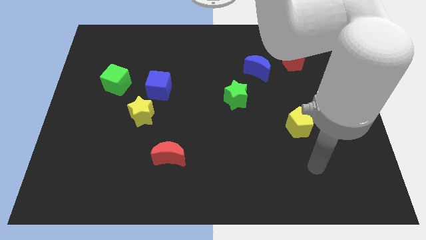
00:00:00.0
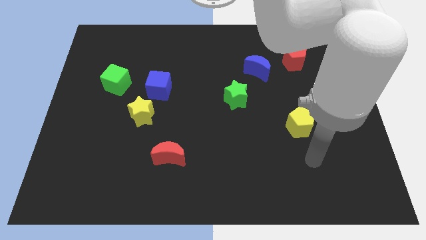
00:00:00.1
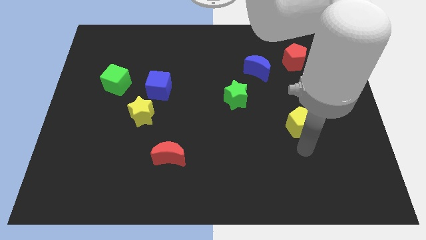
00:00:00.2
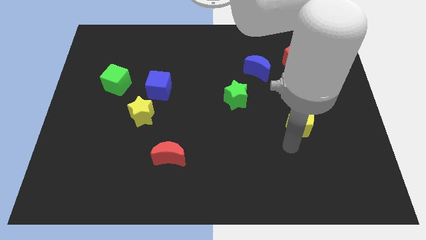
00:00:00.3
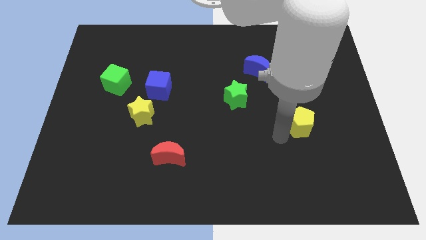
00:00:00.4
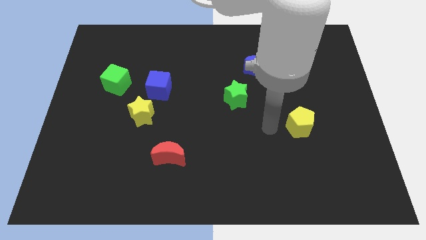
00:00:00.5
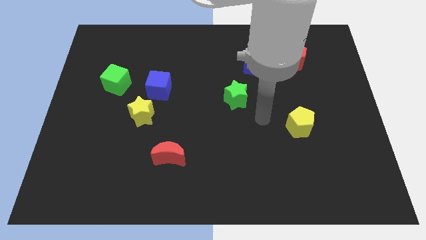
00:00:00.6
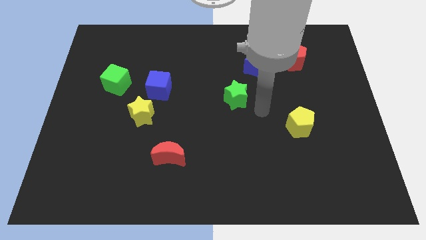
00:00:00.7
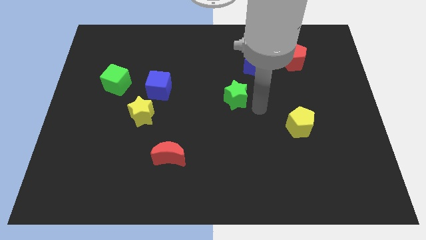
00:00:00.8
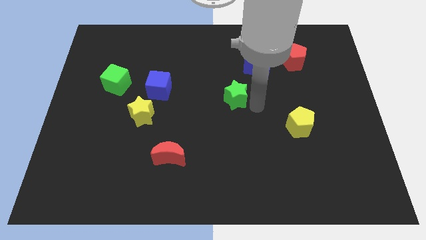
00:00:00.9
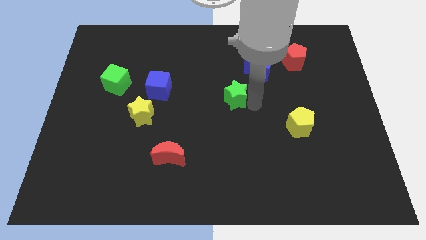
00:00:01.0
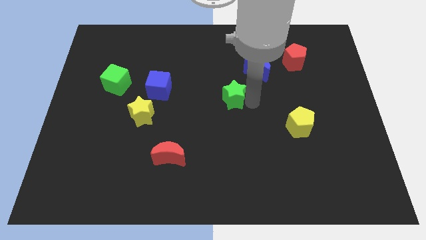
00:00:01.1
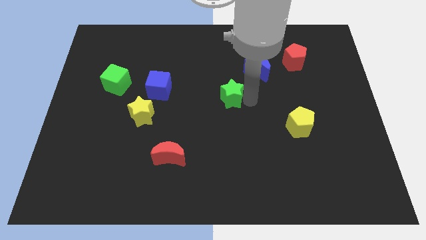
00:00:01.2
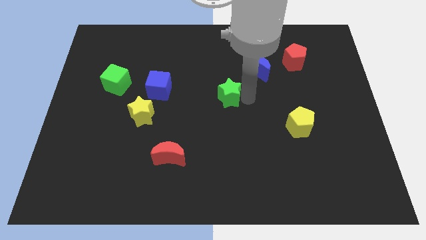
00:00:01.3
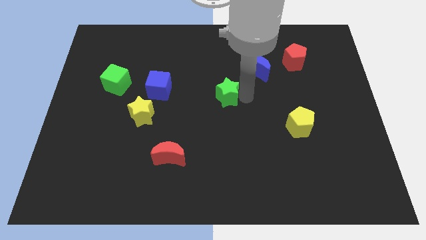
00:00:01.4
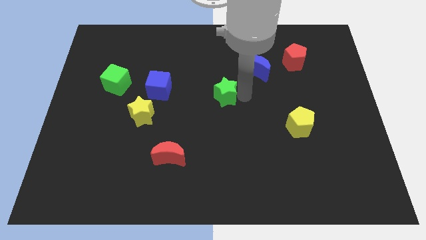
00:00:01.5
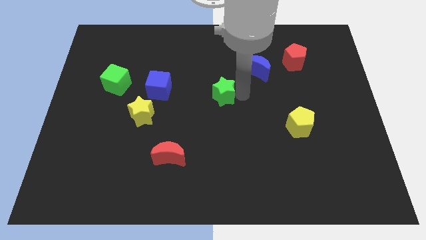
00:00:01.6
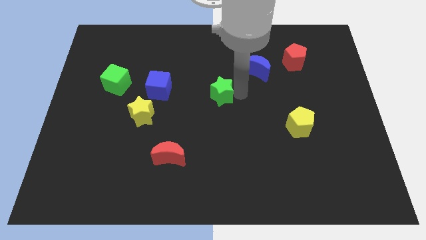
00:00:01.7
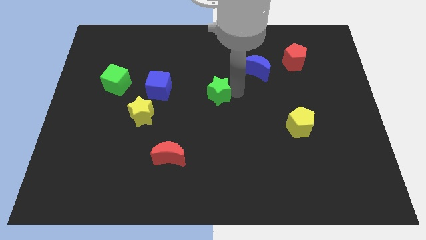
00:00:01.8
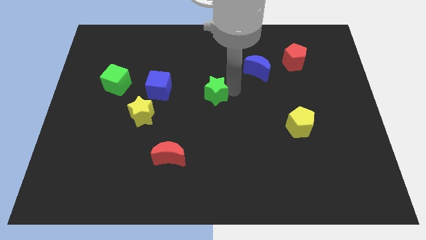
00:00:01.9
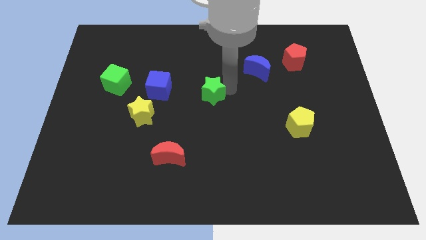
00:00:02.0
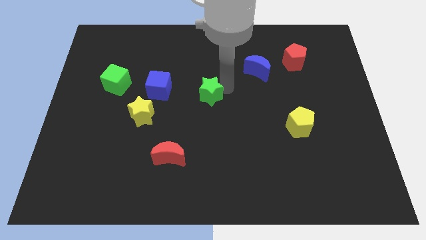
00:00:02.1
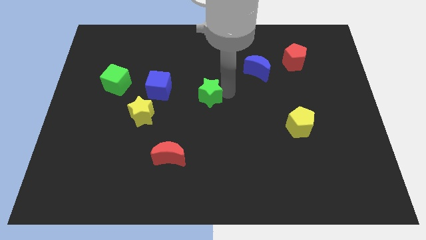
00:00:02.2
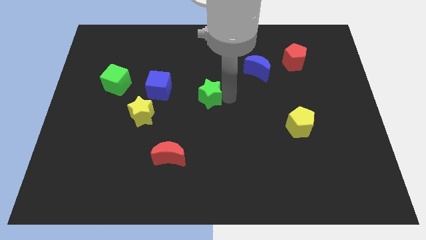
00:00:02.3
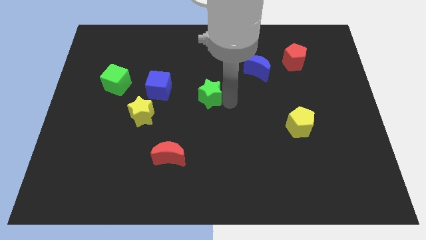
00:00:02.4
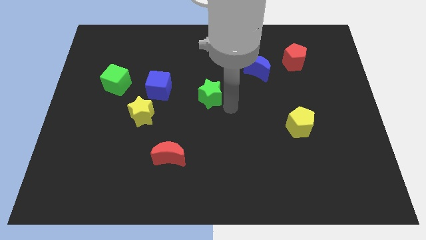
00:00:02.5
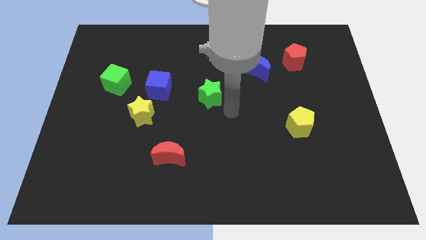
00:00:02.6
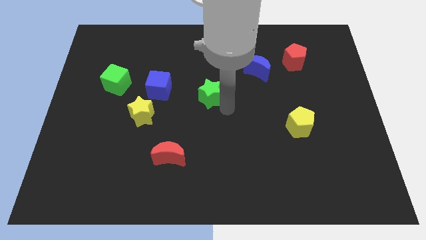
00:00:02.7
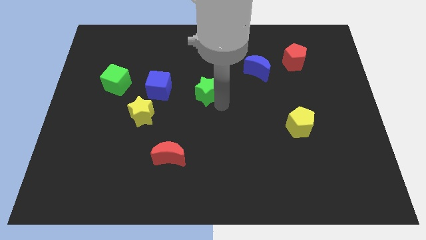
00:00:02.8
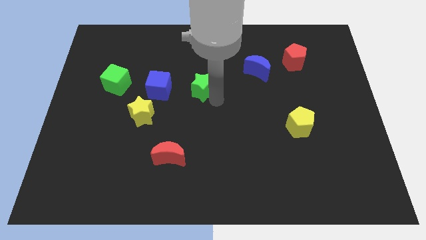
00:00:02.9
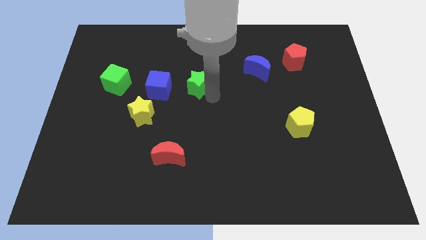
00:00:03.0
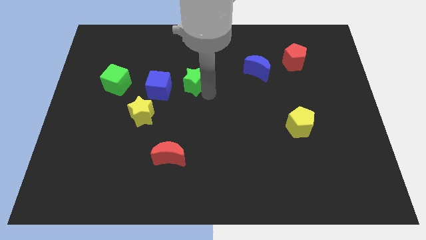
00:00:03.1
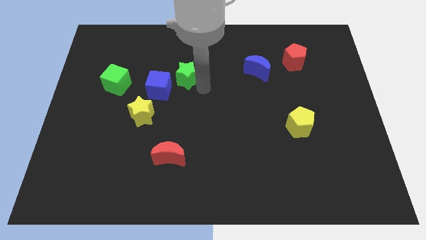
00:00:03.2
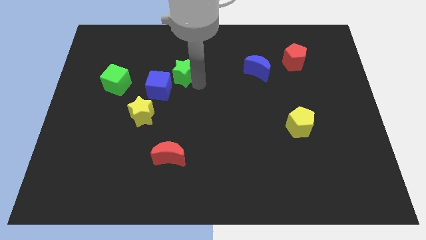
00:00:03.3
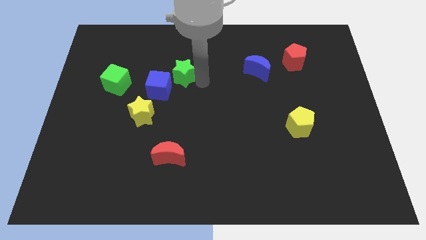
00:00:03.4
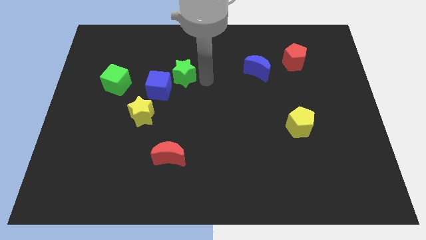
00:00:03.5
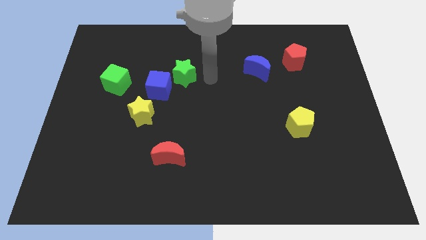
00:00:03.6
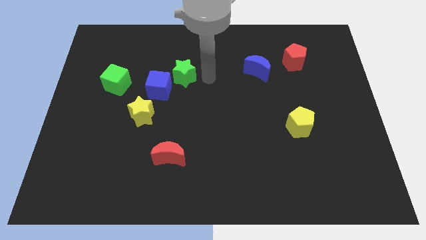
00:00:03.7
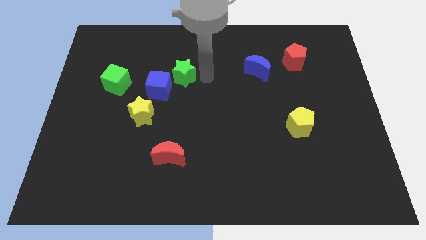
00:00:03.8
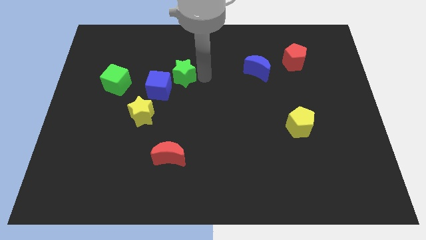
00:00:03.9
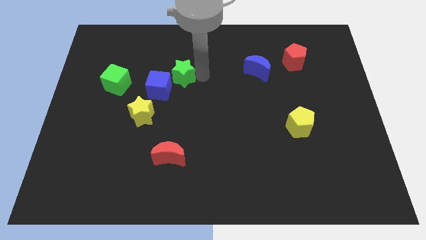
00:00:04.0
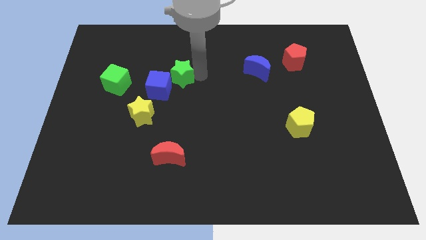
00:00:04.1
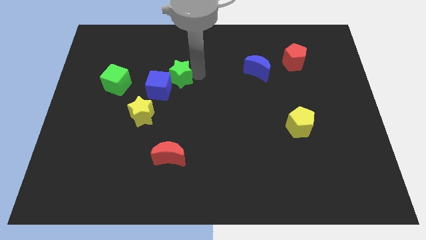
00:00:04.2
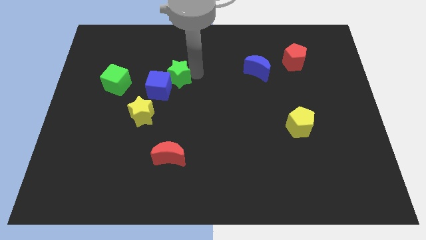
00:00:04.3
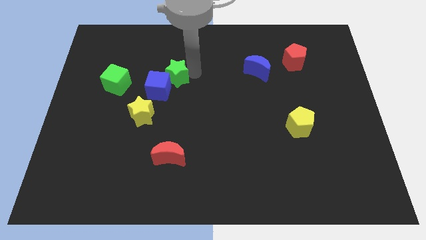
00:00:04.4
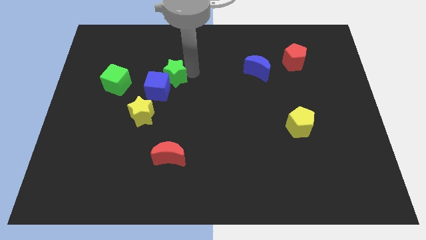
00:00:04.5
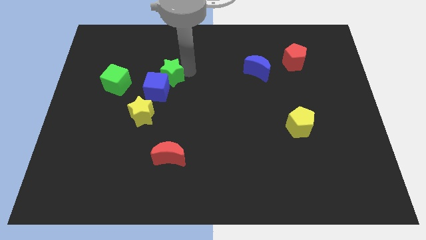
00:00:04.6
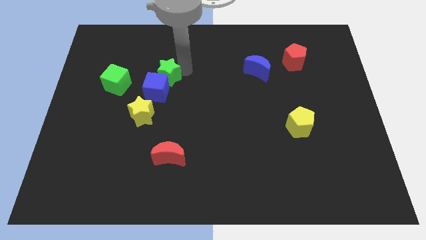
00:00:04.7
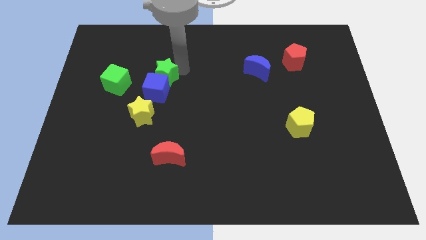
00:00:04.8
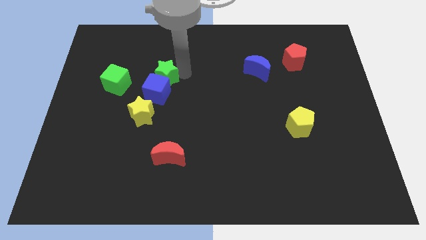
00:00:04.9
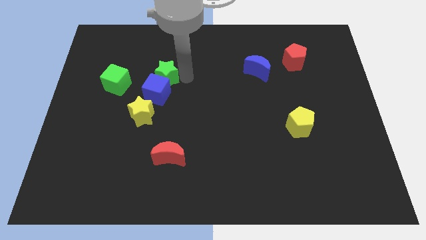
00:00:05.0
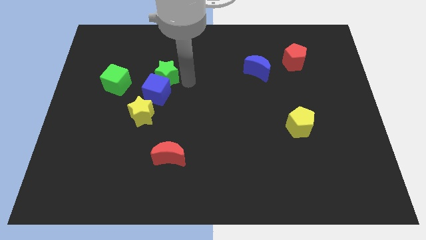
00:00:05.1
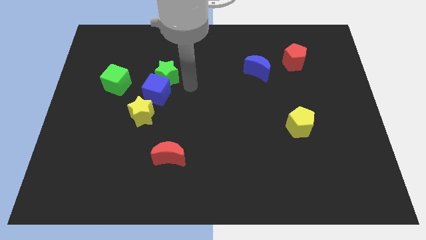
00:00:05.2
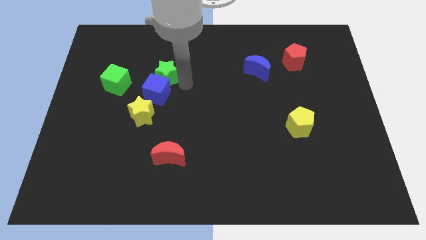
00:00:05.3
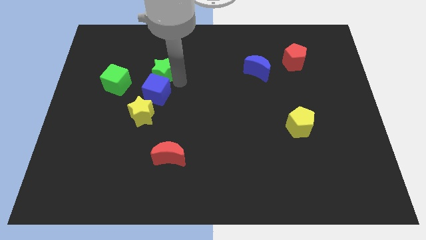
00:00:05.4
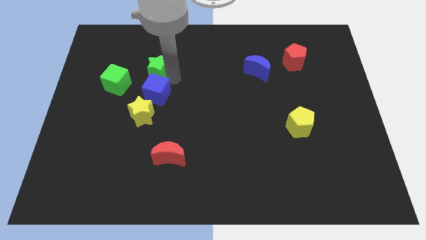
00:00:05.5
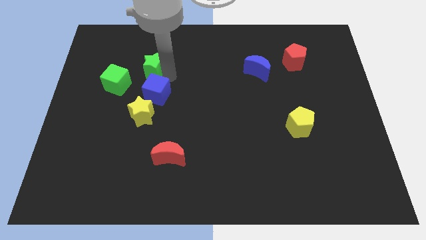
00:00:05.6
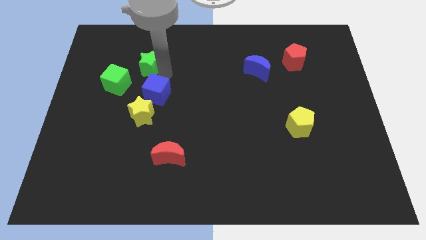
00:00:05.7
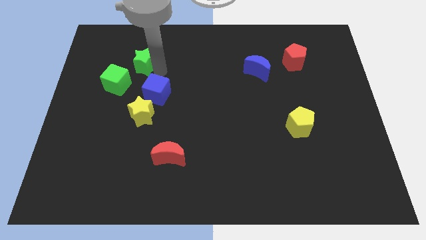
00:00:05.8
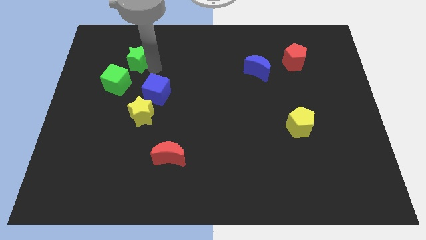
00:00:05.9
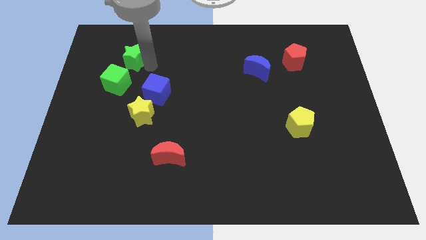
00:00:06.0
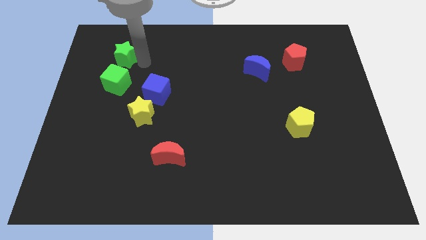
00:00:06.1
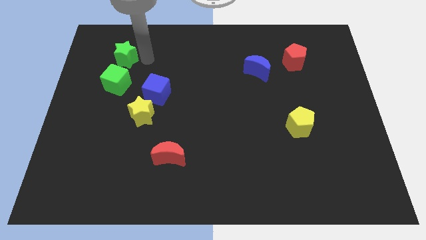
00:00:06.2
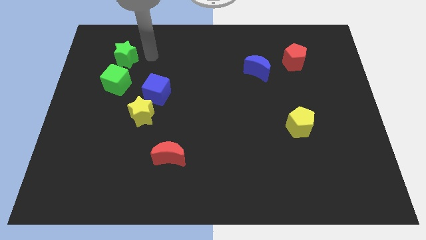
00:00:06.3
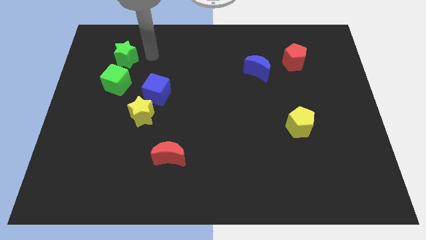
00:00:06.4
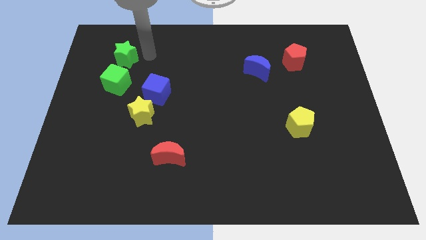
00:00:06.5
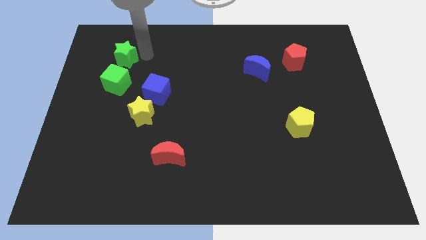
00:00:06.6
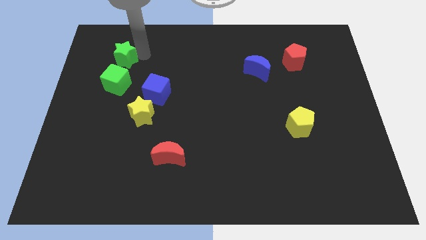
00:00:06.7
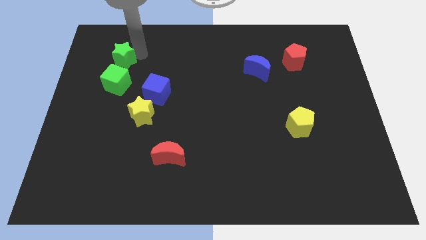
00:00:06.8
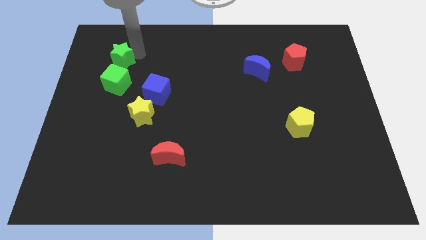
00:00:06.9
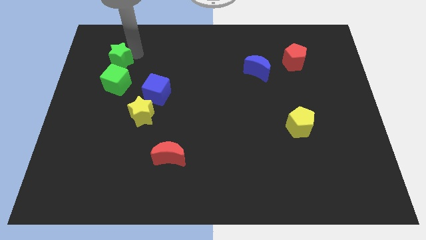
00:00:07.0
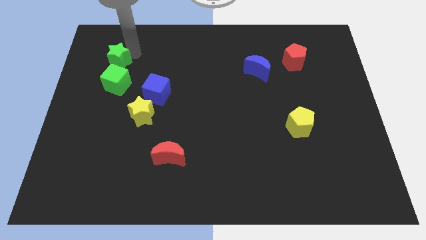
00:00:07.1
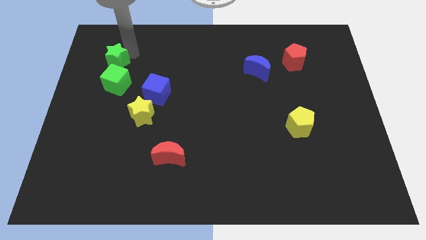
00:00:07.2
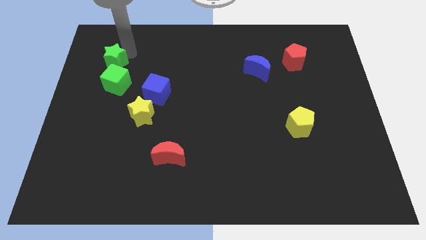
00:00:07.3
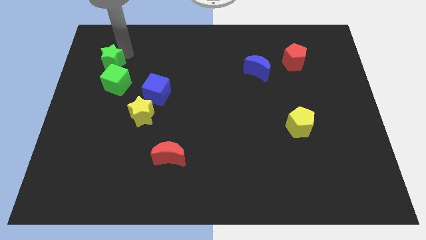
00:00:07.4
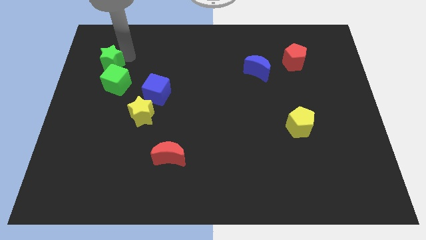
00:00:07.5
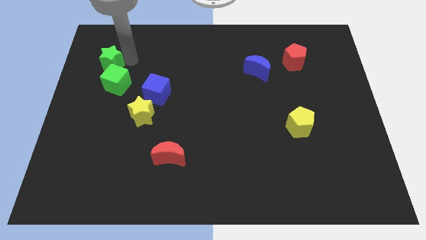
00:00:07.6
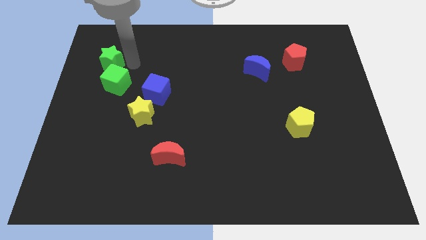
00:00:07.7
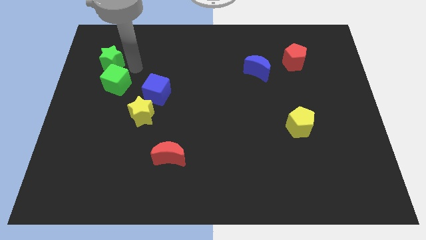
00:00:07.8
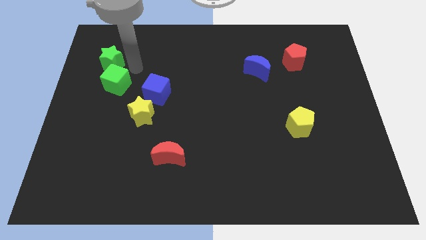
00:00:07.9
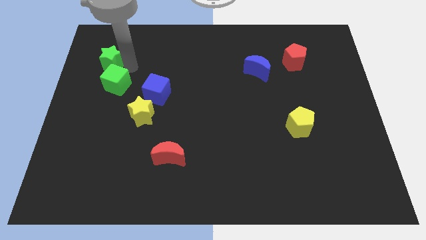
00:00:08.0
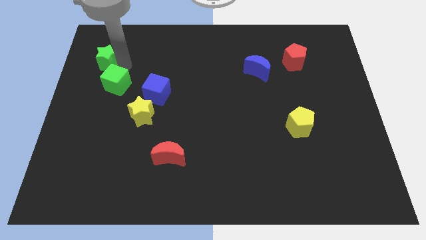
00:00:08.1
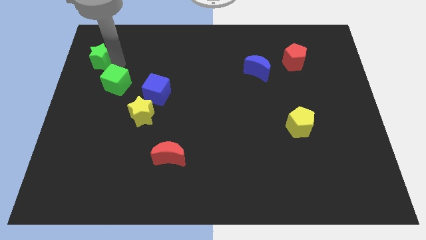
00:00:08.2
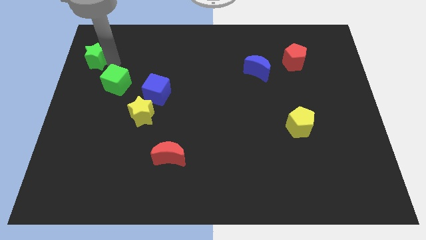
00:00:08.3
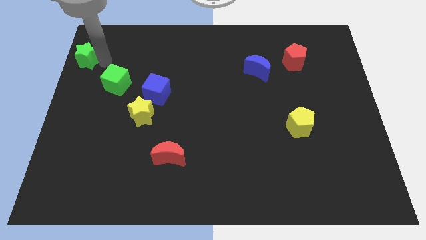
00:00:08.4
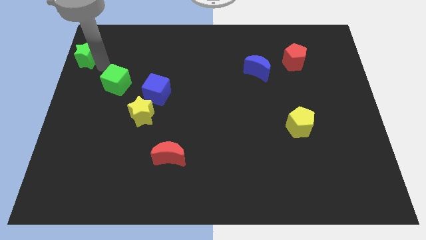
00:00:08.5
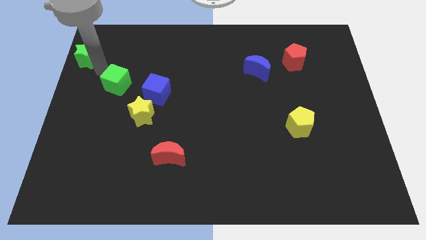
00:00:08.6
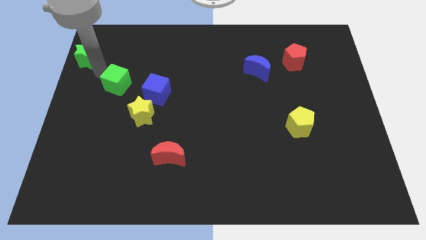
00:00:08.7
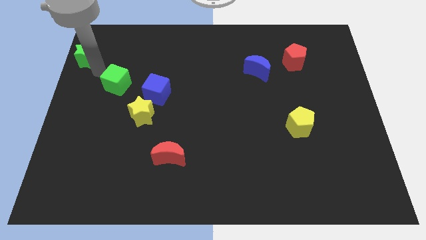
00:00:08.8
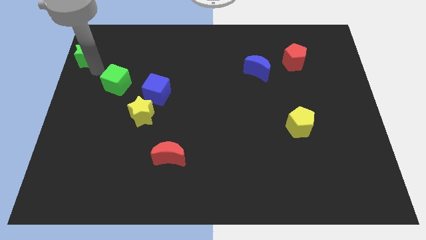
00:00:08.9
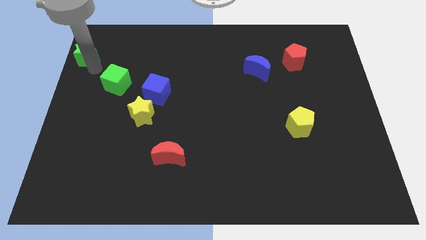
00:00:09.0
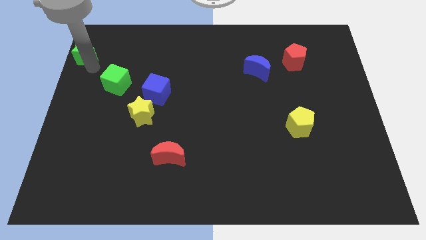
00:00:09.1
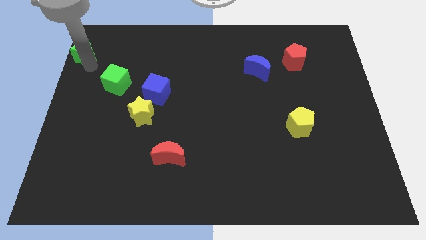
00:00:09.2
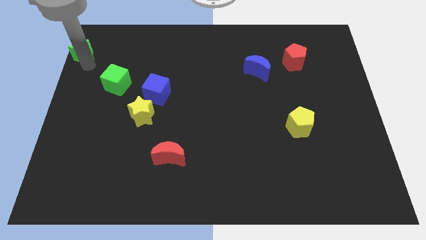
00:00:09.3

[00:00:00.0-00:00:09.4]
move the green star to the top left corner
